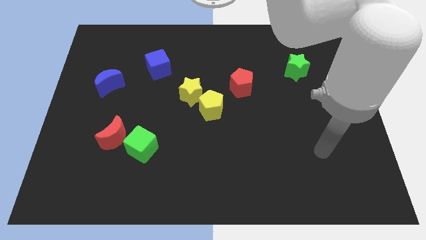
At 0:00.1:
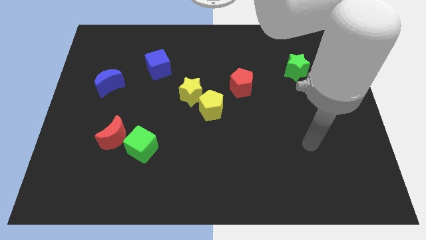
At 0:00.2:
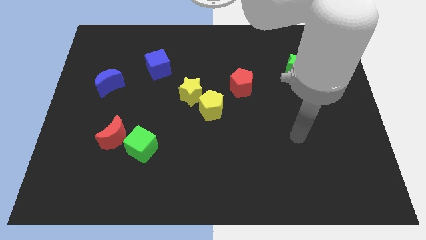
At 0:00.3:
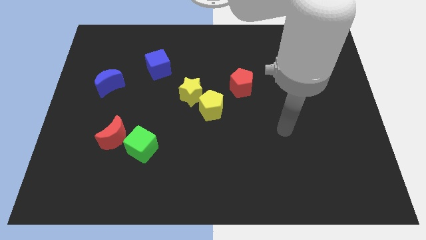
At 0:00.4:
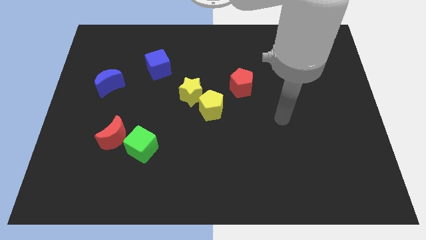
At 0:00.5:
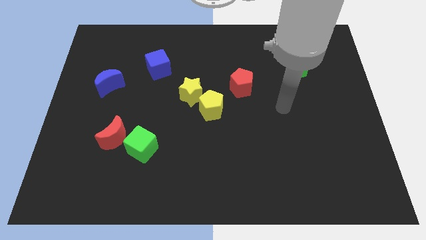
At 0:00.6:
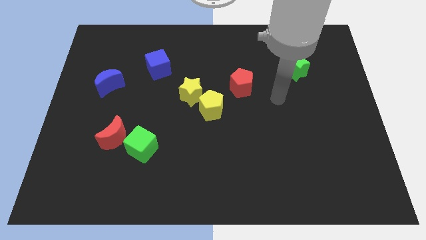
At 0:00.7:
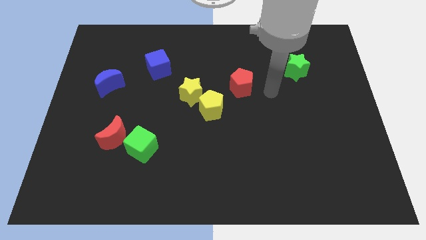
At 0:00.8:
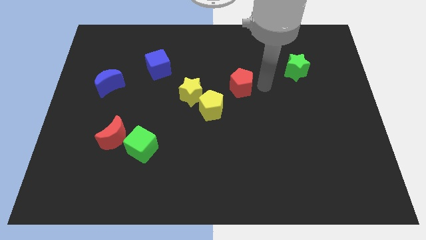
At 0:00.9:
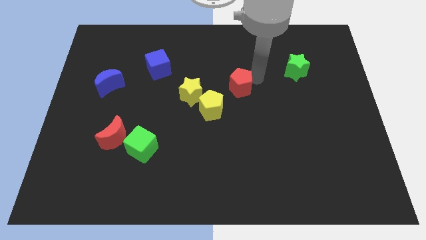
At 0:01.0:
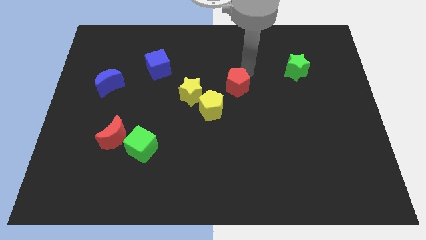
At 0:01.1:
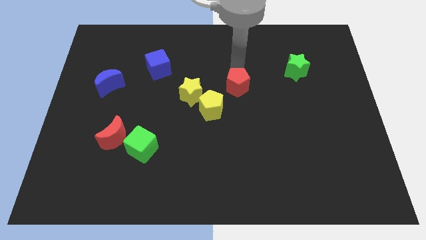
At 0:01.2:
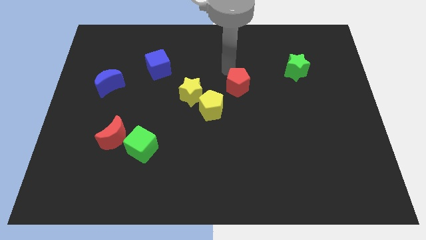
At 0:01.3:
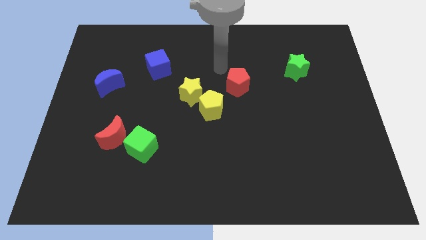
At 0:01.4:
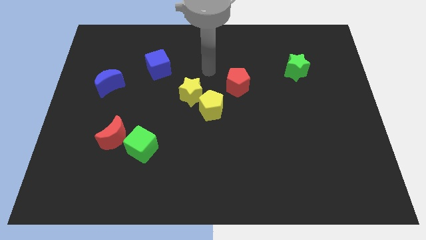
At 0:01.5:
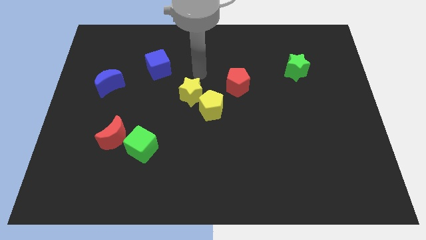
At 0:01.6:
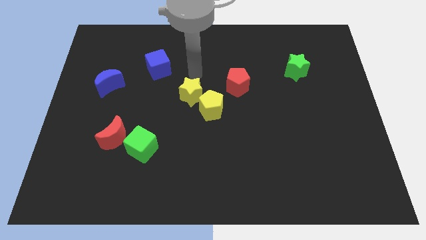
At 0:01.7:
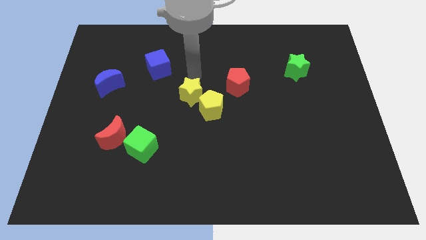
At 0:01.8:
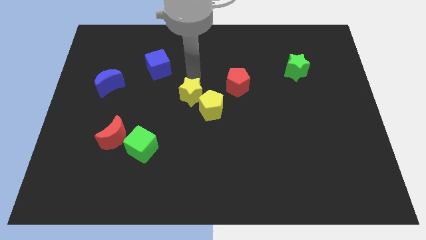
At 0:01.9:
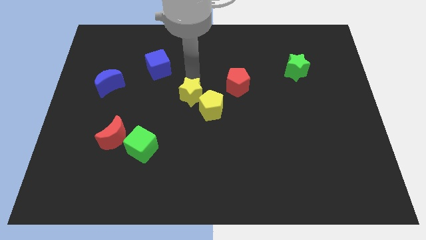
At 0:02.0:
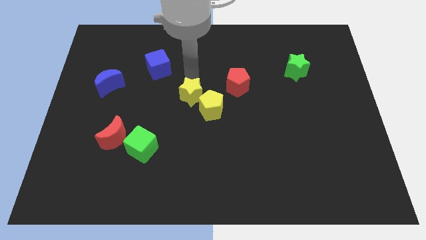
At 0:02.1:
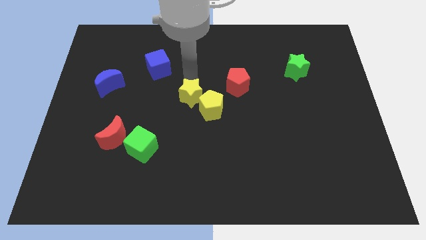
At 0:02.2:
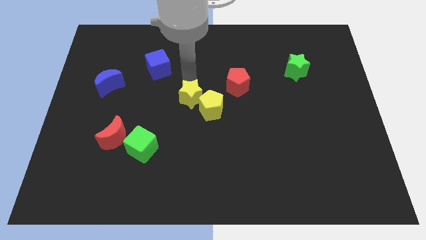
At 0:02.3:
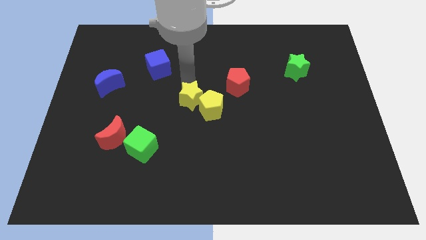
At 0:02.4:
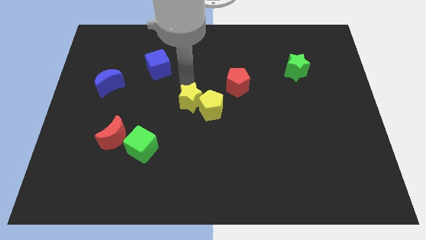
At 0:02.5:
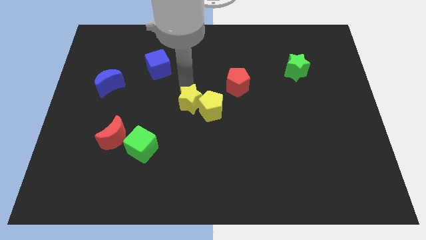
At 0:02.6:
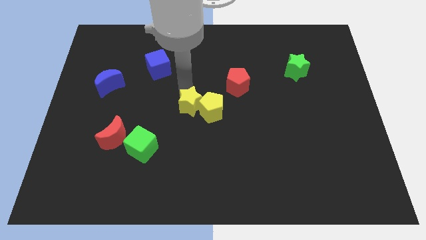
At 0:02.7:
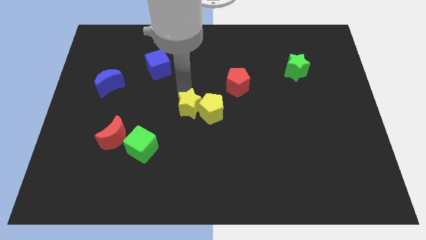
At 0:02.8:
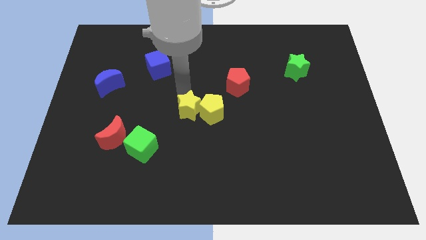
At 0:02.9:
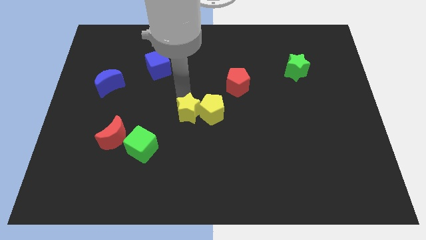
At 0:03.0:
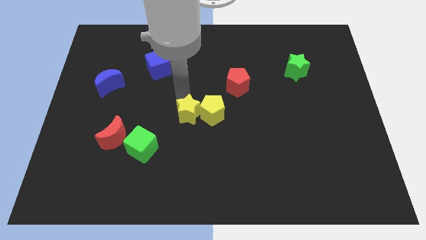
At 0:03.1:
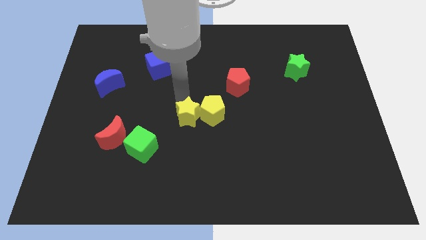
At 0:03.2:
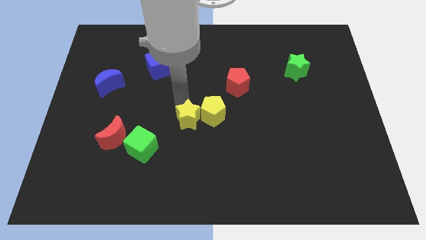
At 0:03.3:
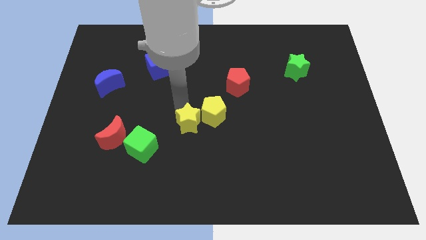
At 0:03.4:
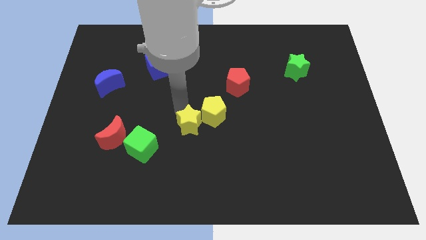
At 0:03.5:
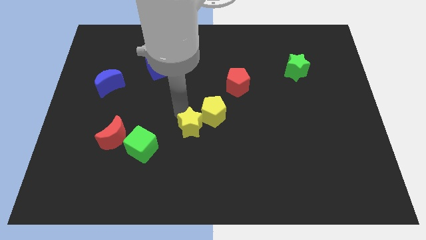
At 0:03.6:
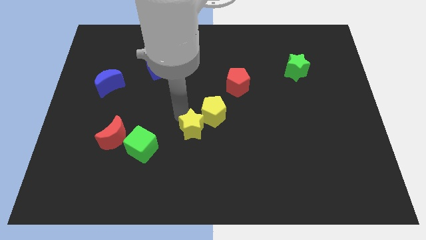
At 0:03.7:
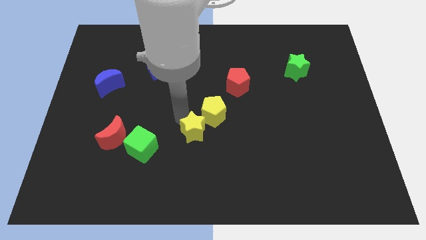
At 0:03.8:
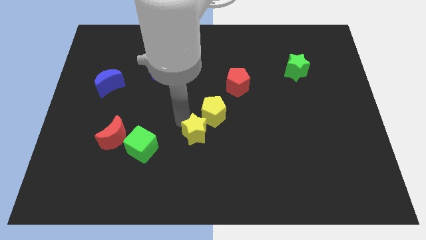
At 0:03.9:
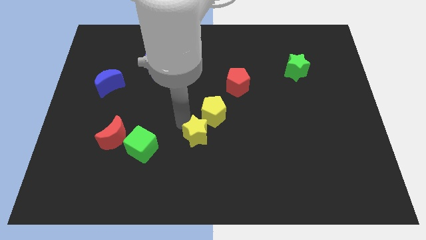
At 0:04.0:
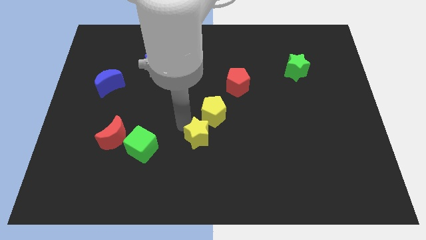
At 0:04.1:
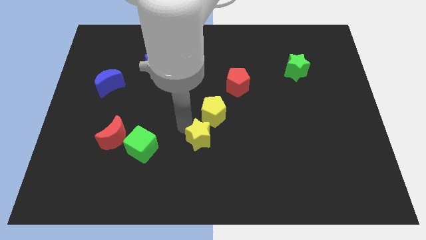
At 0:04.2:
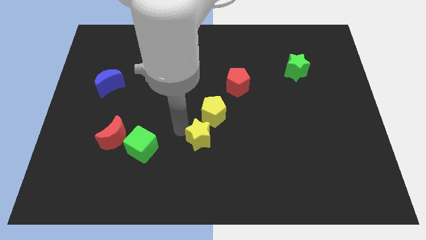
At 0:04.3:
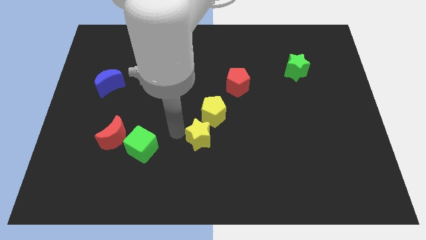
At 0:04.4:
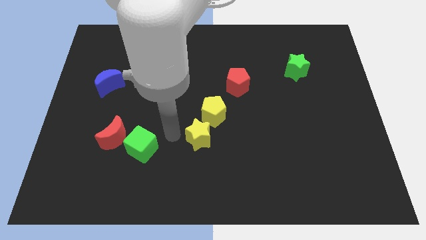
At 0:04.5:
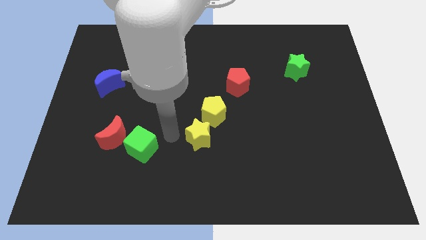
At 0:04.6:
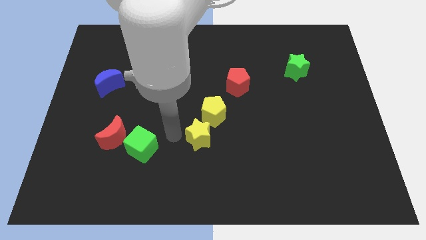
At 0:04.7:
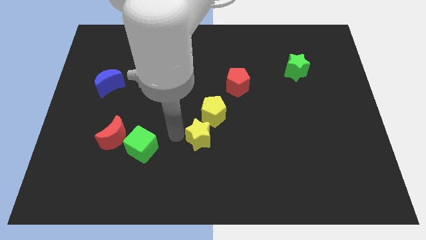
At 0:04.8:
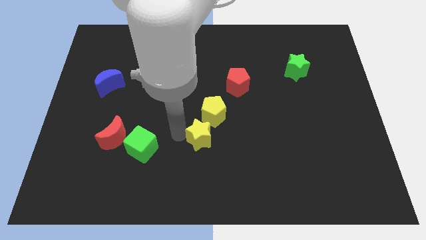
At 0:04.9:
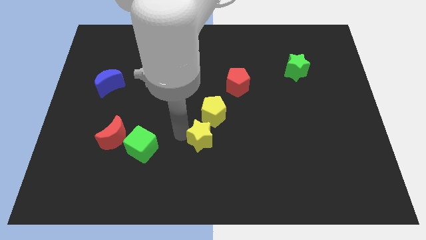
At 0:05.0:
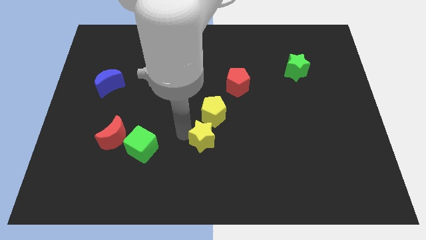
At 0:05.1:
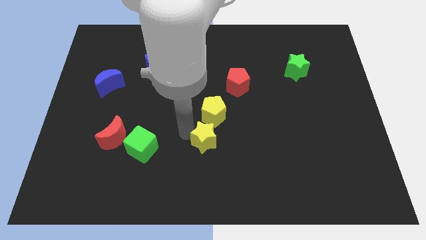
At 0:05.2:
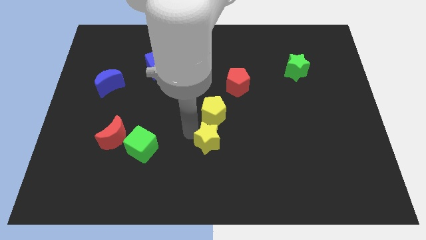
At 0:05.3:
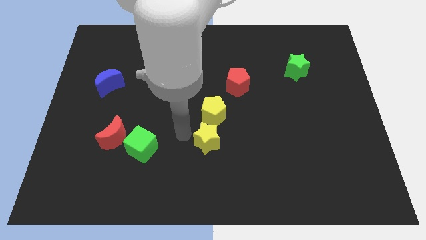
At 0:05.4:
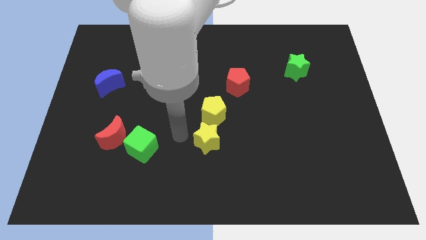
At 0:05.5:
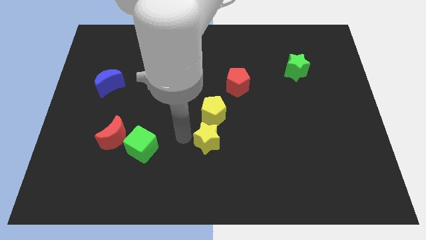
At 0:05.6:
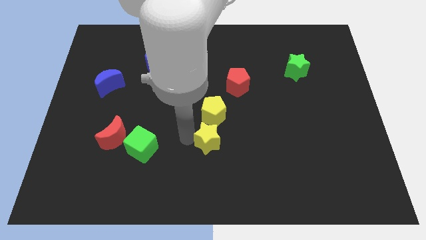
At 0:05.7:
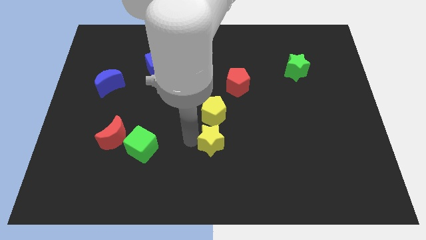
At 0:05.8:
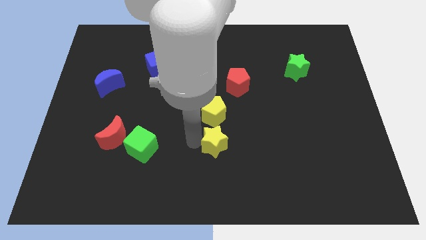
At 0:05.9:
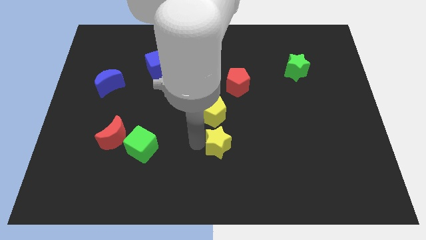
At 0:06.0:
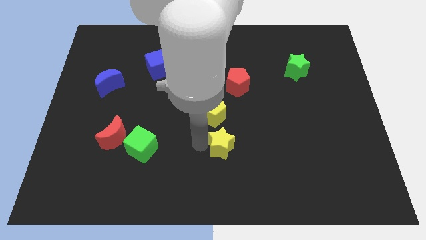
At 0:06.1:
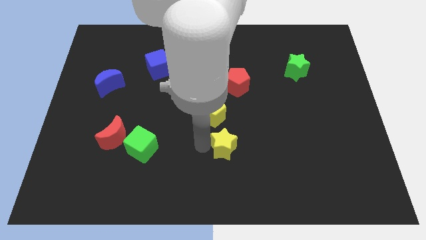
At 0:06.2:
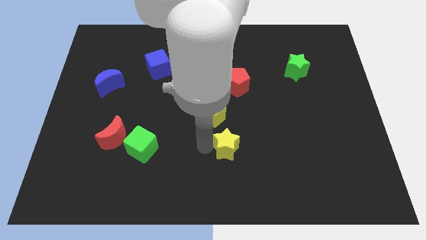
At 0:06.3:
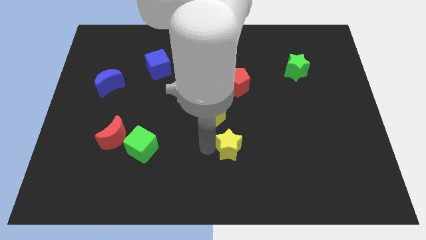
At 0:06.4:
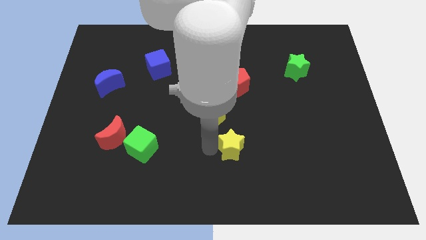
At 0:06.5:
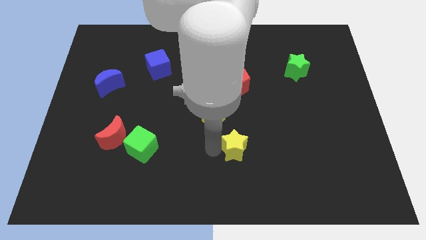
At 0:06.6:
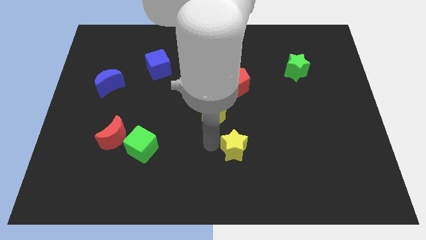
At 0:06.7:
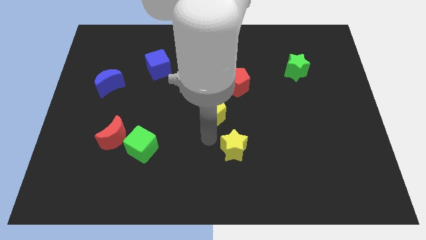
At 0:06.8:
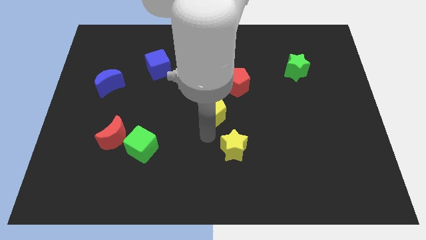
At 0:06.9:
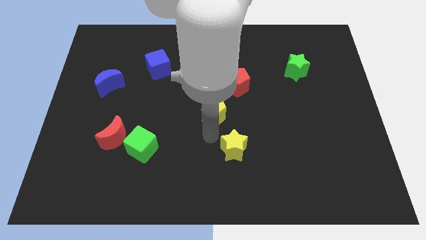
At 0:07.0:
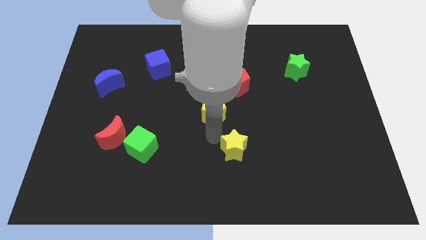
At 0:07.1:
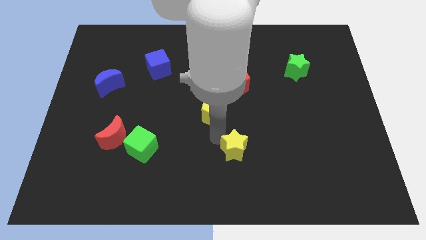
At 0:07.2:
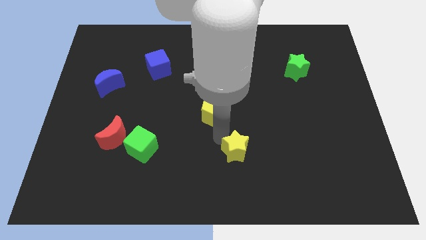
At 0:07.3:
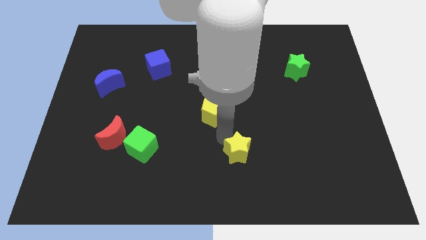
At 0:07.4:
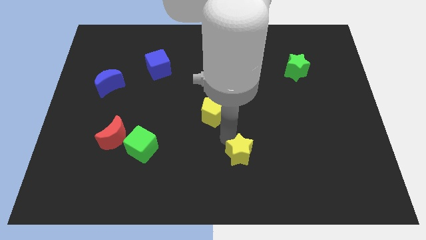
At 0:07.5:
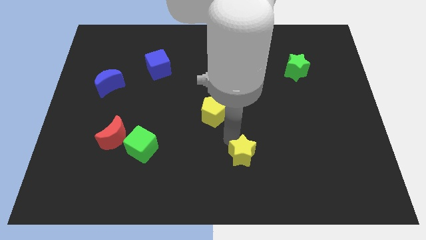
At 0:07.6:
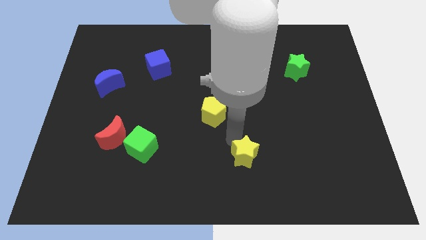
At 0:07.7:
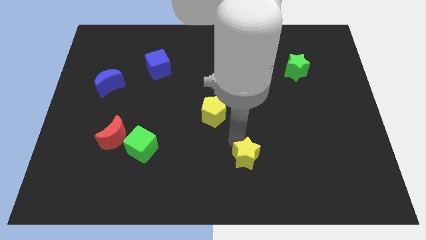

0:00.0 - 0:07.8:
move the yellow star diagonally downwards and right

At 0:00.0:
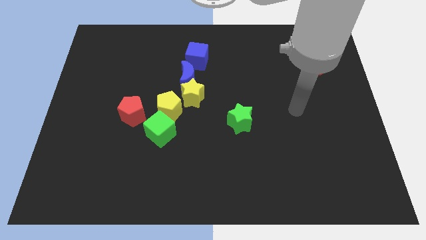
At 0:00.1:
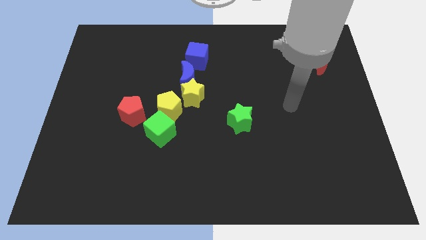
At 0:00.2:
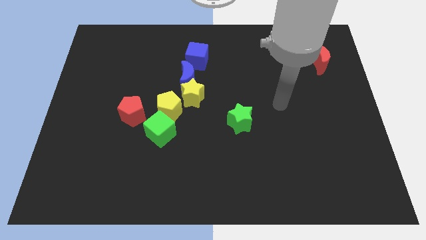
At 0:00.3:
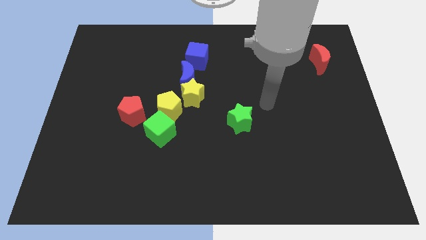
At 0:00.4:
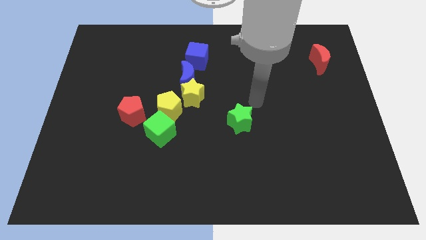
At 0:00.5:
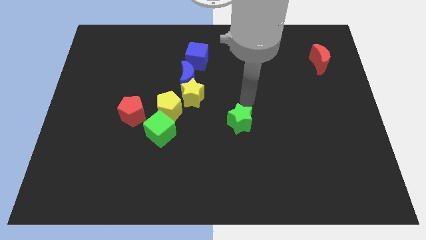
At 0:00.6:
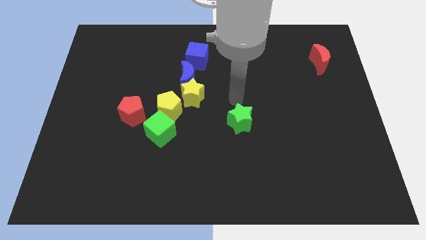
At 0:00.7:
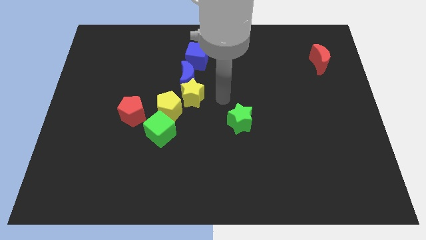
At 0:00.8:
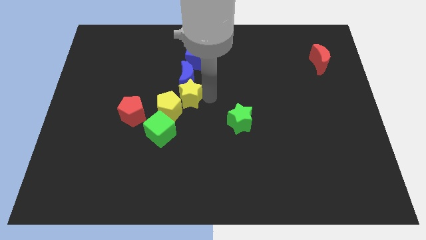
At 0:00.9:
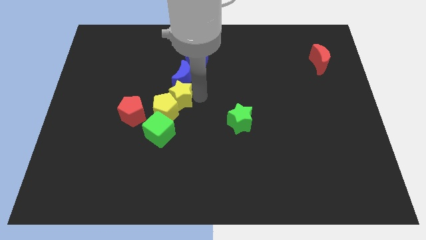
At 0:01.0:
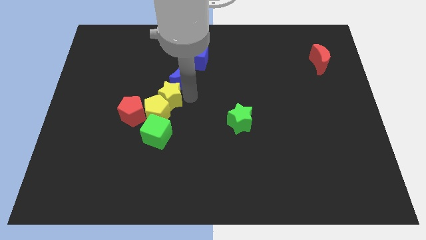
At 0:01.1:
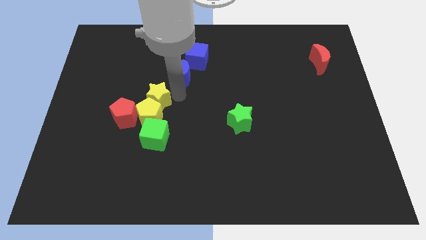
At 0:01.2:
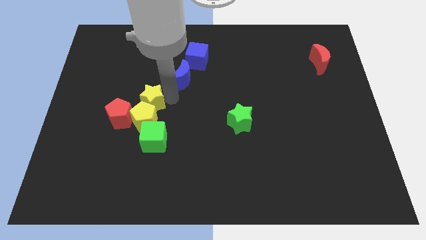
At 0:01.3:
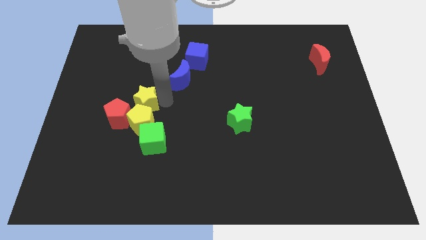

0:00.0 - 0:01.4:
slightly slide the yellow pentagon diagonally down and to the left
